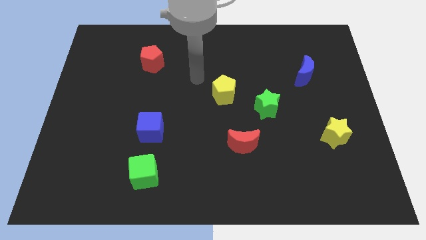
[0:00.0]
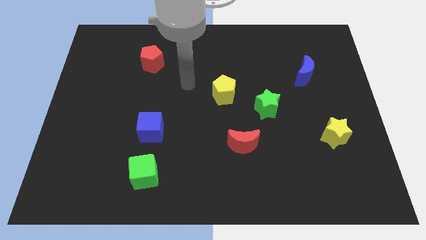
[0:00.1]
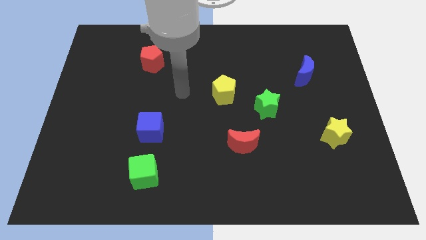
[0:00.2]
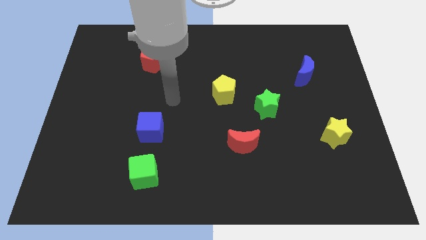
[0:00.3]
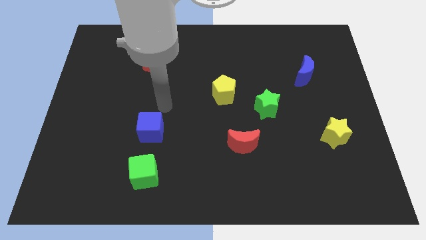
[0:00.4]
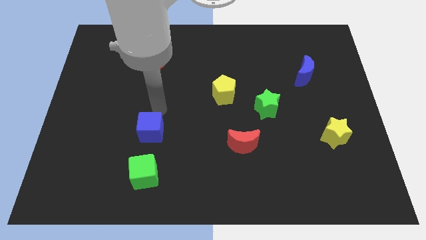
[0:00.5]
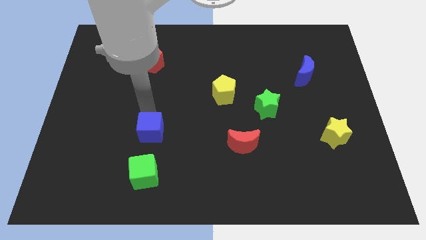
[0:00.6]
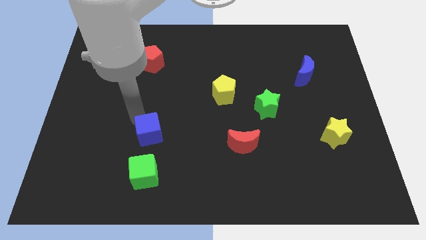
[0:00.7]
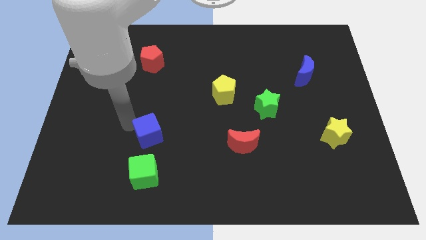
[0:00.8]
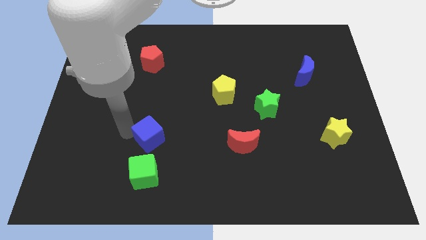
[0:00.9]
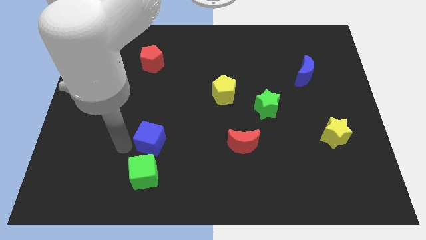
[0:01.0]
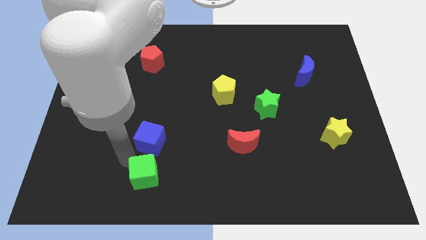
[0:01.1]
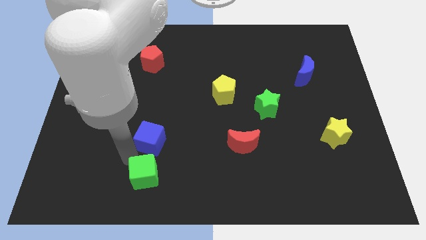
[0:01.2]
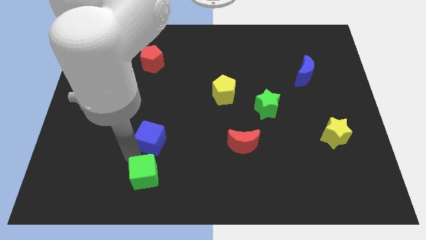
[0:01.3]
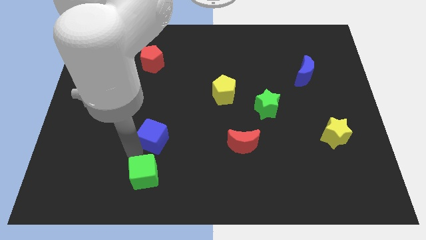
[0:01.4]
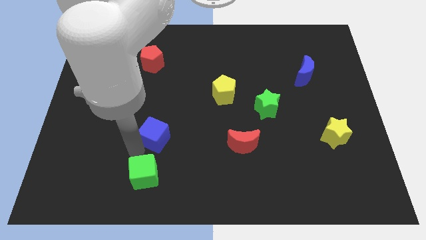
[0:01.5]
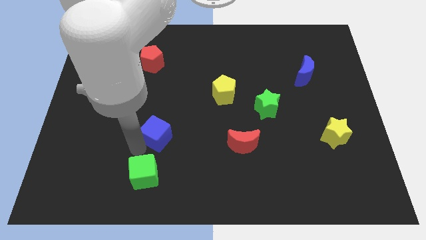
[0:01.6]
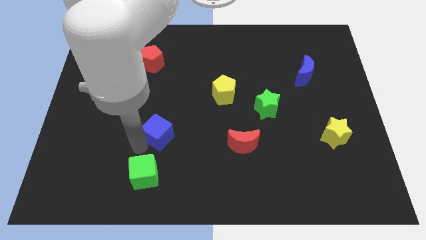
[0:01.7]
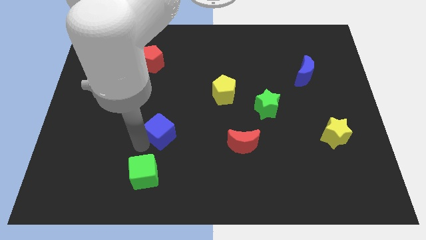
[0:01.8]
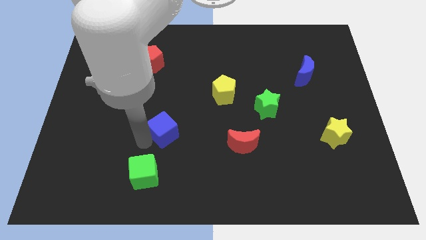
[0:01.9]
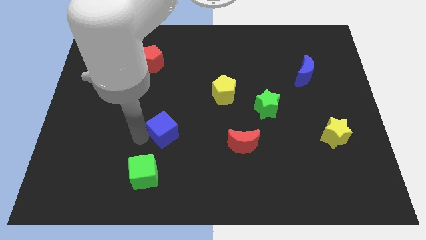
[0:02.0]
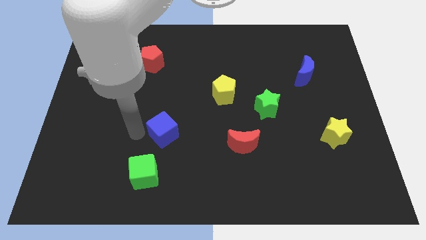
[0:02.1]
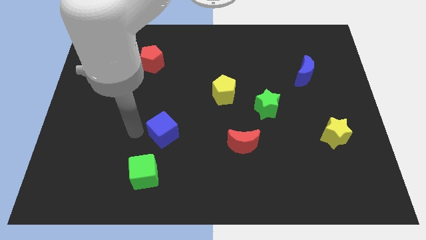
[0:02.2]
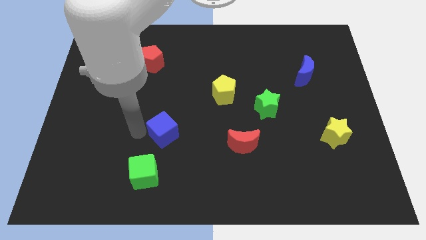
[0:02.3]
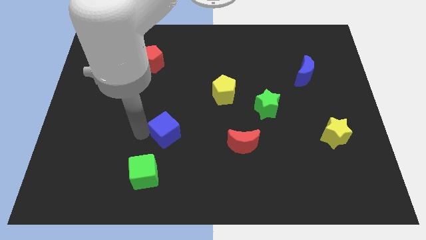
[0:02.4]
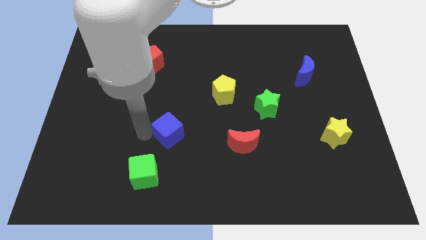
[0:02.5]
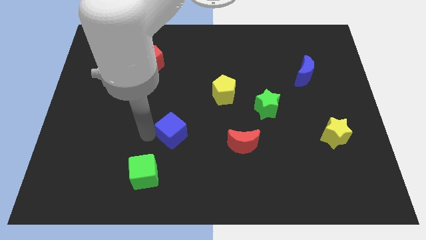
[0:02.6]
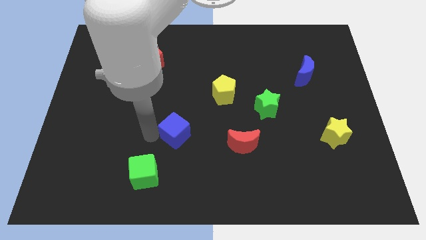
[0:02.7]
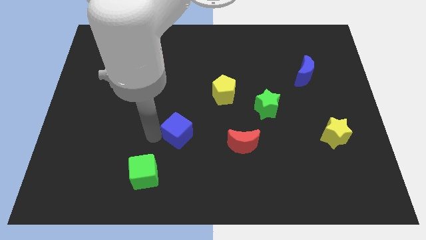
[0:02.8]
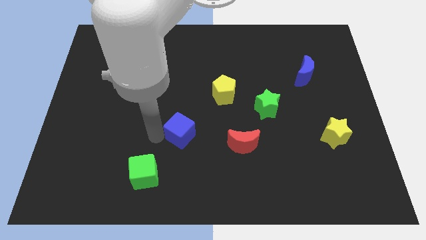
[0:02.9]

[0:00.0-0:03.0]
move the blue cube slightly right

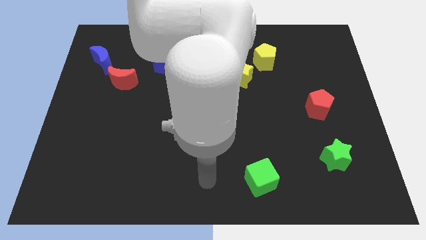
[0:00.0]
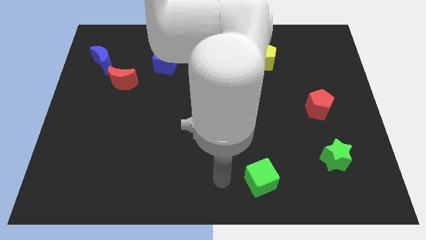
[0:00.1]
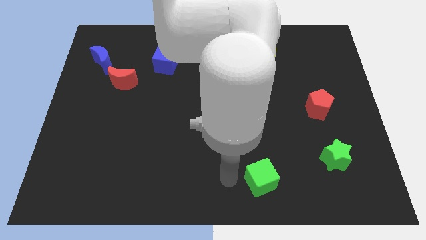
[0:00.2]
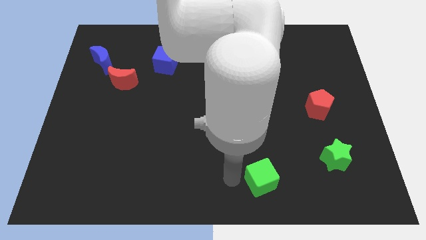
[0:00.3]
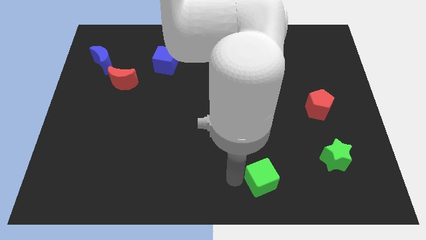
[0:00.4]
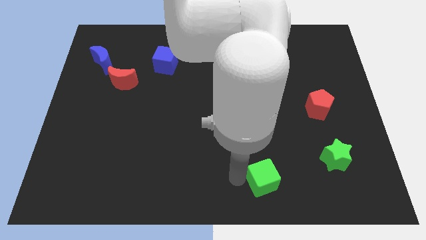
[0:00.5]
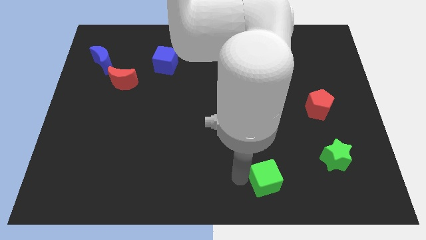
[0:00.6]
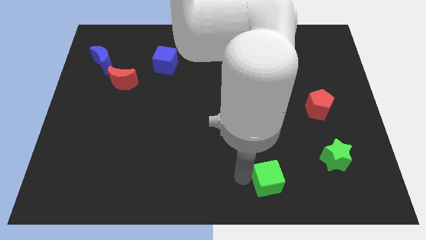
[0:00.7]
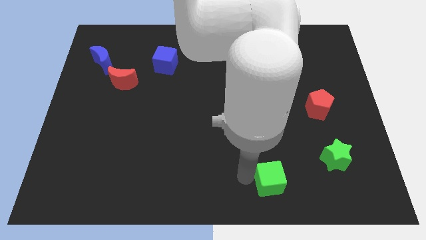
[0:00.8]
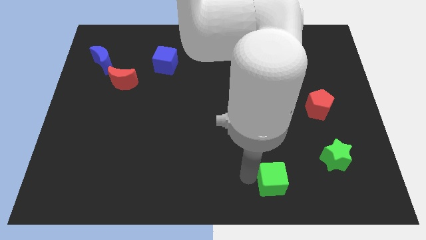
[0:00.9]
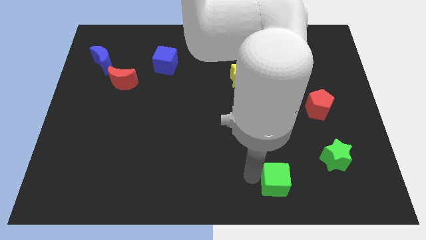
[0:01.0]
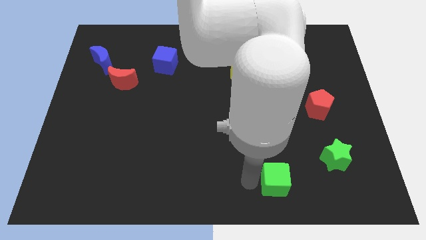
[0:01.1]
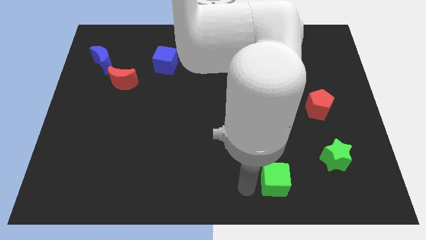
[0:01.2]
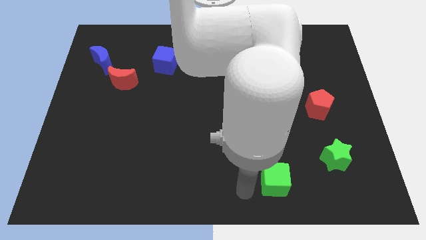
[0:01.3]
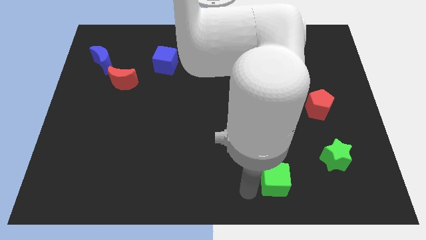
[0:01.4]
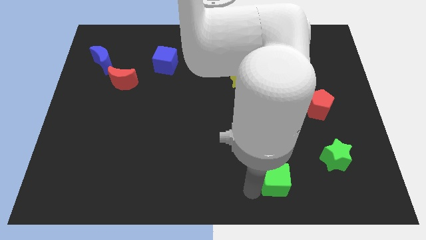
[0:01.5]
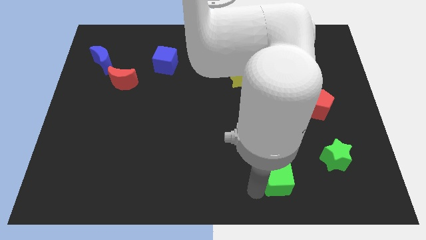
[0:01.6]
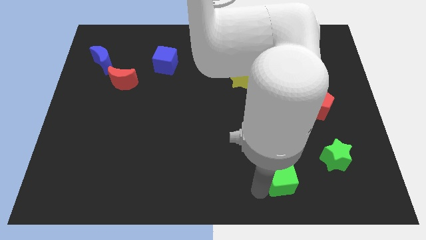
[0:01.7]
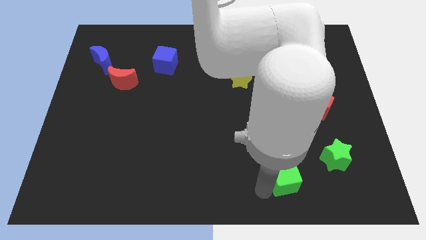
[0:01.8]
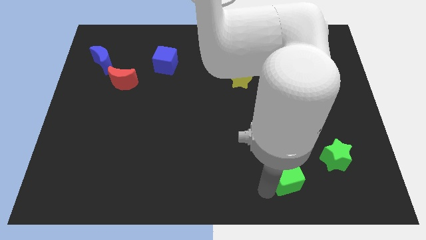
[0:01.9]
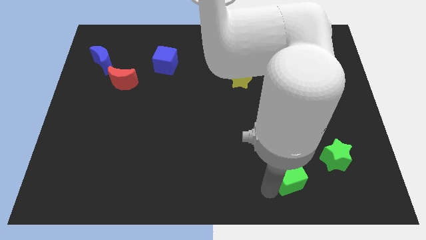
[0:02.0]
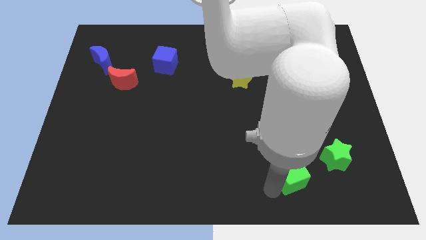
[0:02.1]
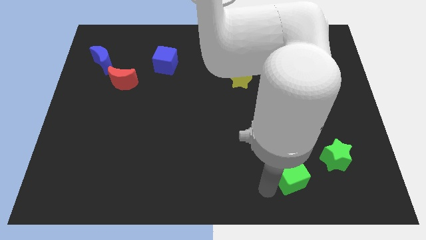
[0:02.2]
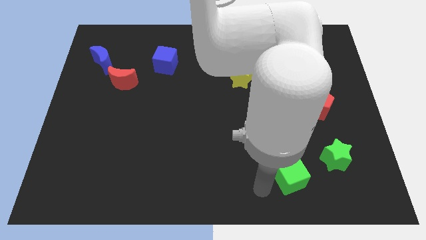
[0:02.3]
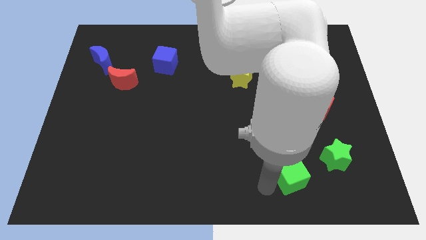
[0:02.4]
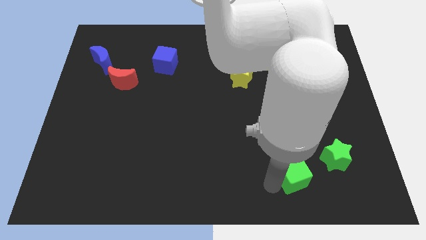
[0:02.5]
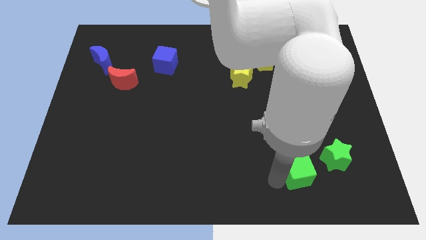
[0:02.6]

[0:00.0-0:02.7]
push the green cube to the right a little bit

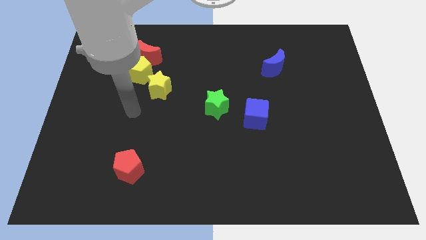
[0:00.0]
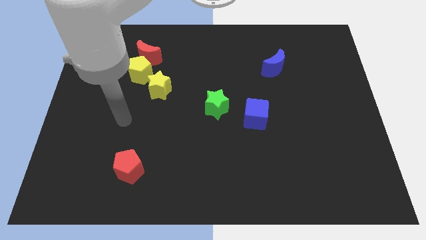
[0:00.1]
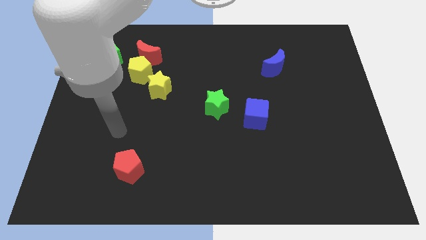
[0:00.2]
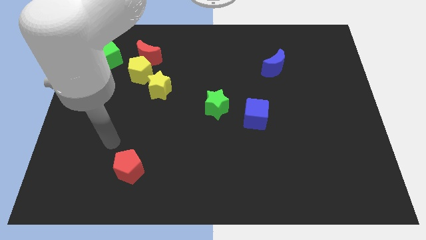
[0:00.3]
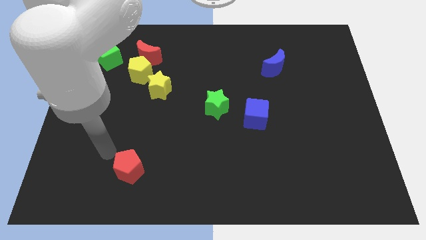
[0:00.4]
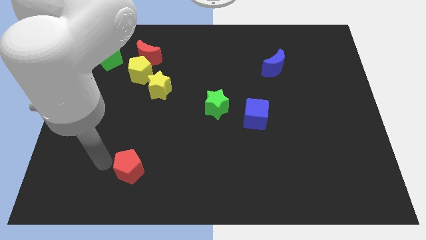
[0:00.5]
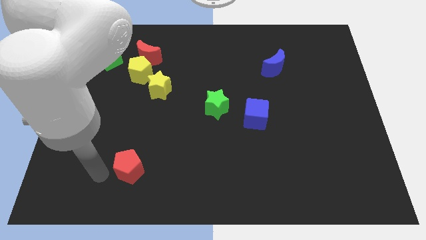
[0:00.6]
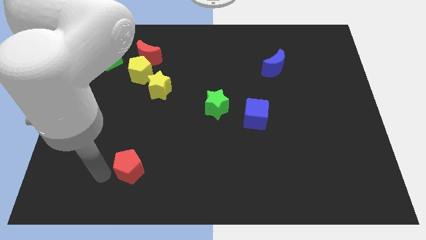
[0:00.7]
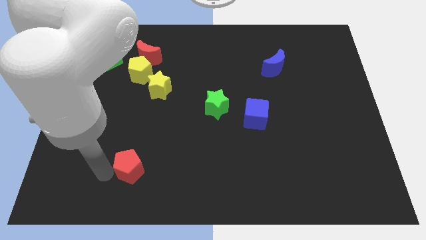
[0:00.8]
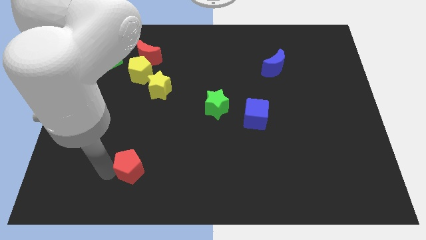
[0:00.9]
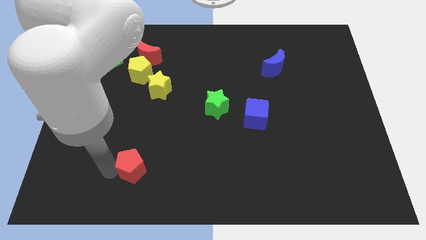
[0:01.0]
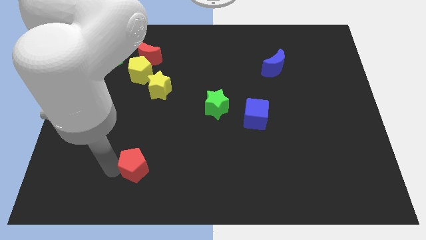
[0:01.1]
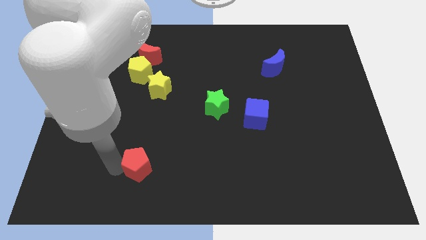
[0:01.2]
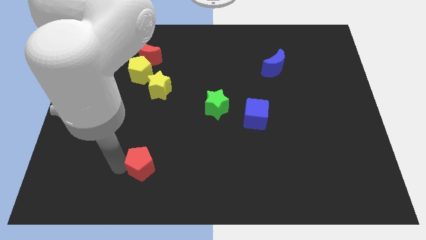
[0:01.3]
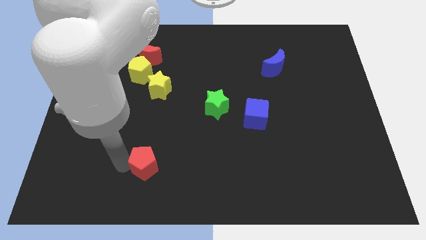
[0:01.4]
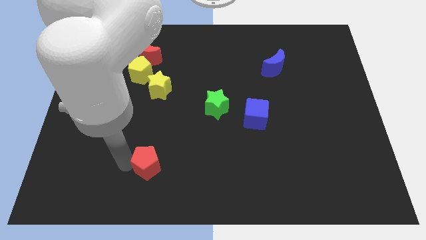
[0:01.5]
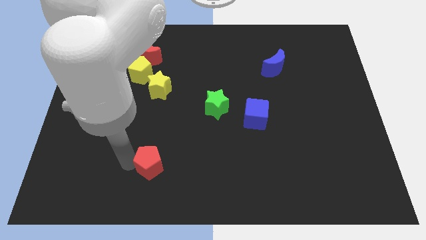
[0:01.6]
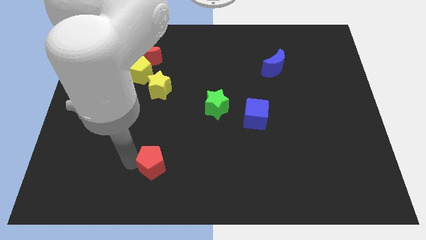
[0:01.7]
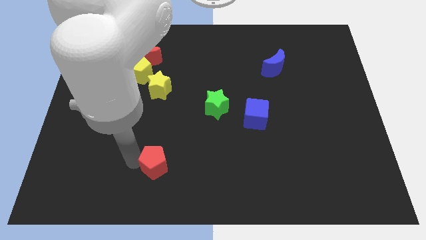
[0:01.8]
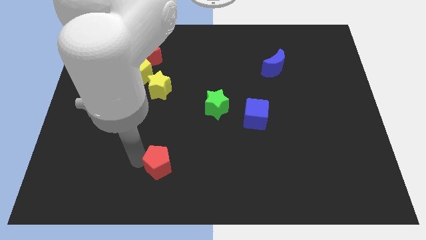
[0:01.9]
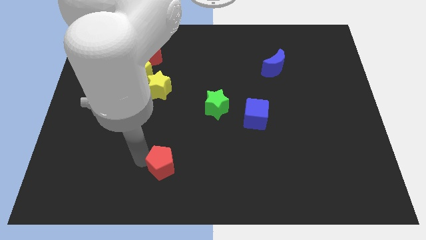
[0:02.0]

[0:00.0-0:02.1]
push the red pentagon to the right somewhat

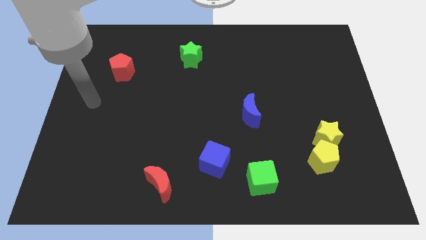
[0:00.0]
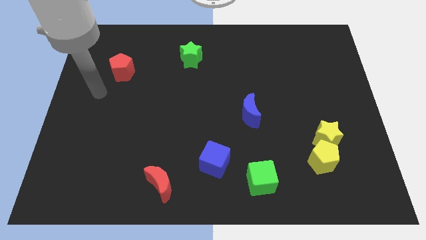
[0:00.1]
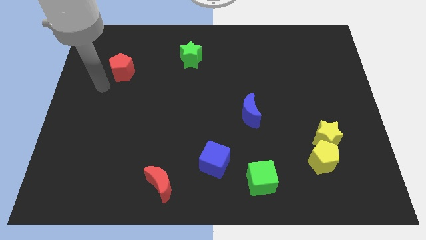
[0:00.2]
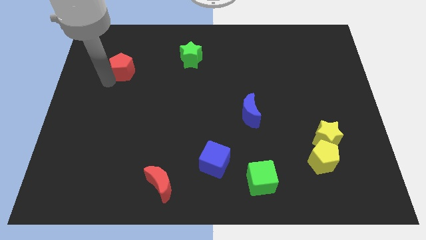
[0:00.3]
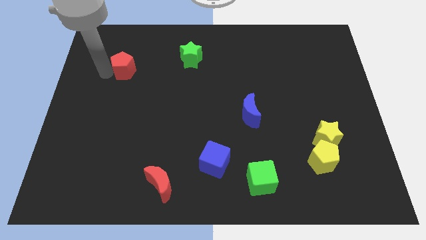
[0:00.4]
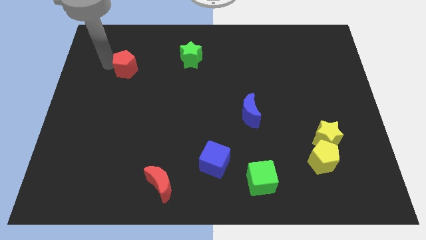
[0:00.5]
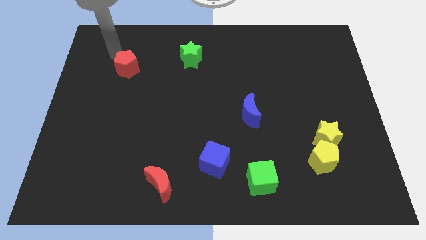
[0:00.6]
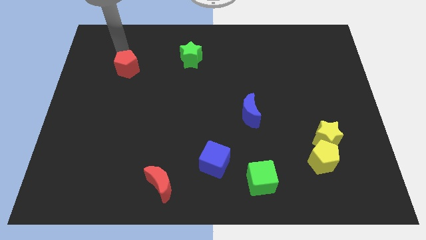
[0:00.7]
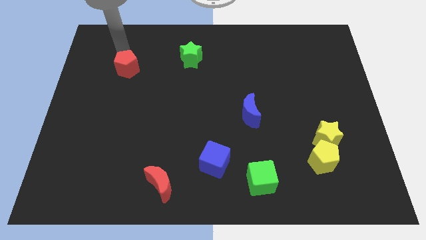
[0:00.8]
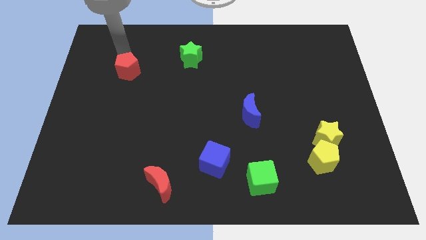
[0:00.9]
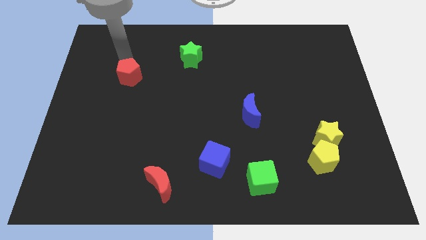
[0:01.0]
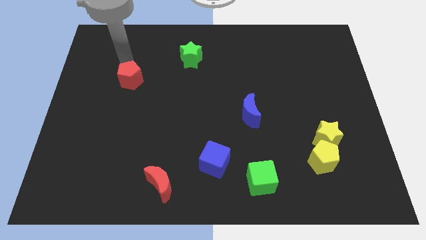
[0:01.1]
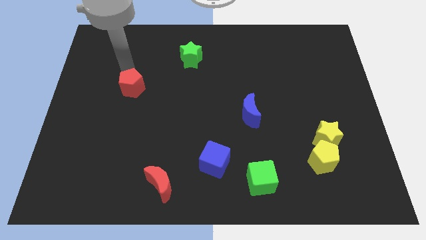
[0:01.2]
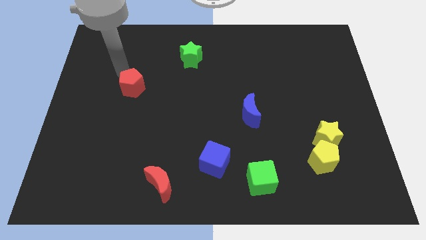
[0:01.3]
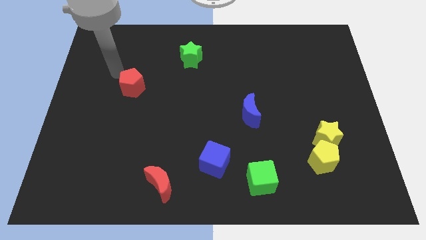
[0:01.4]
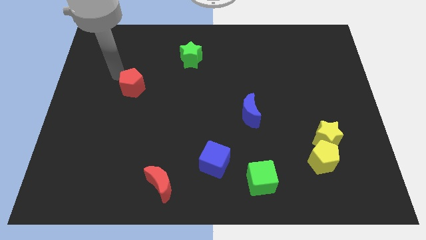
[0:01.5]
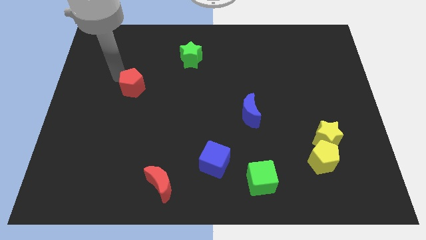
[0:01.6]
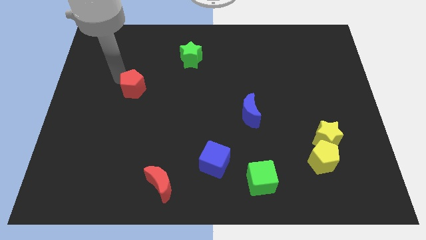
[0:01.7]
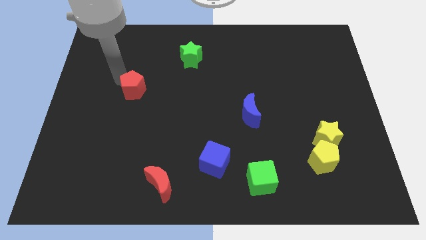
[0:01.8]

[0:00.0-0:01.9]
slide the red pentagon downwards and to the right slightly
